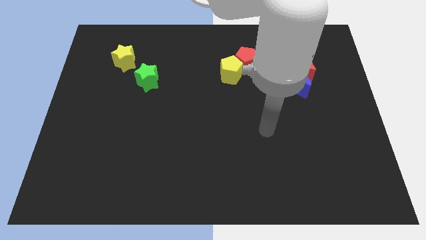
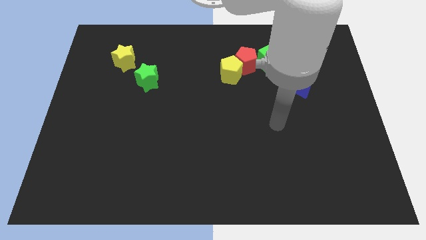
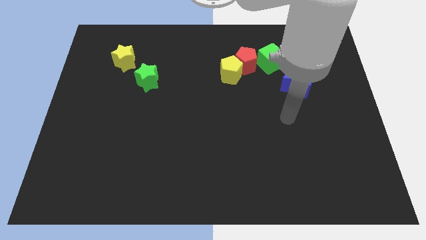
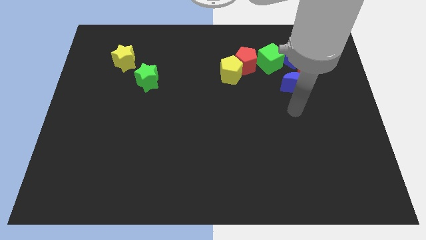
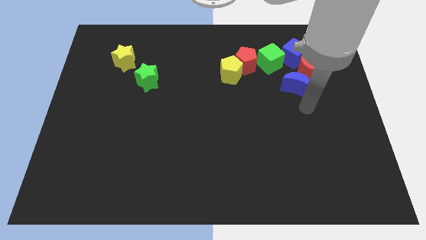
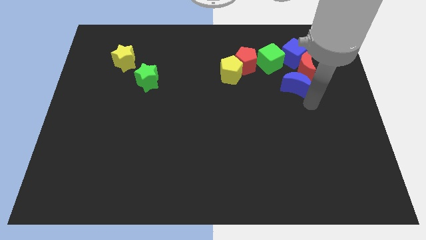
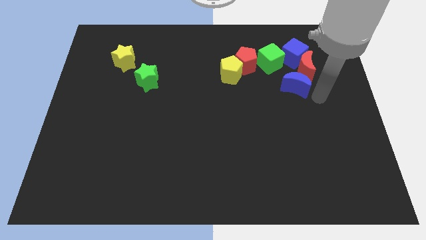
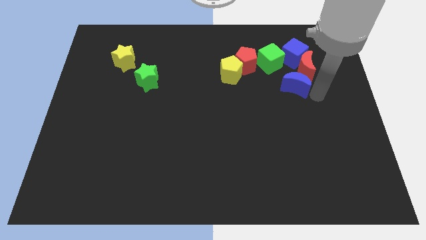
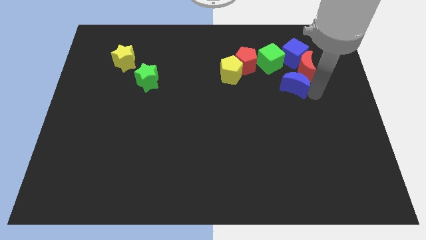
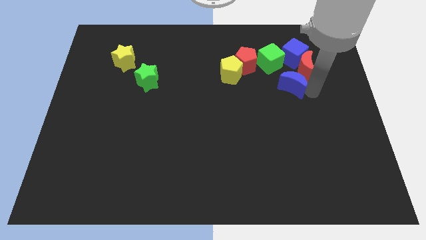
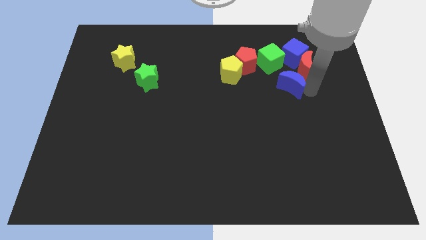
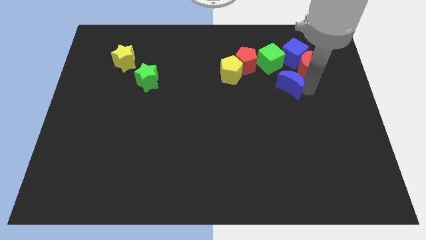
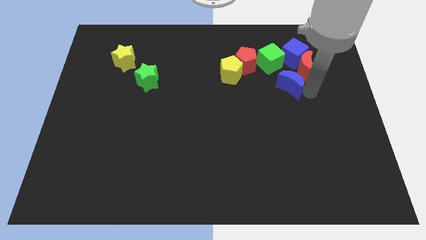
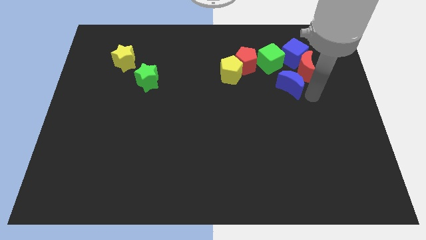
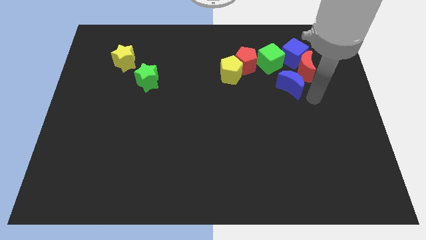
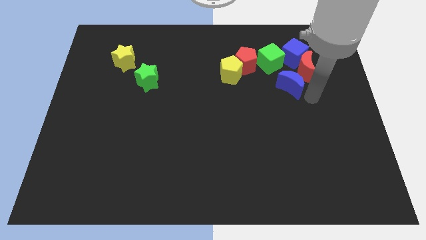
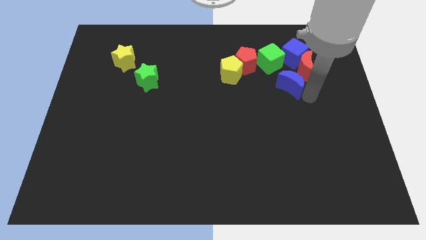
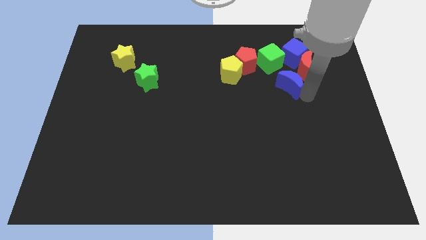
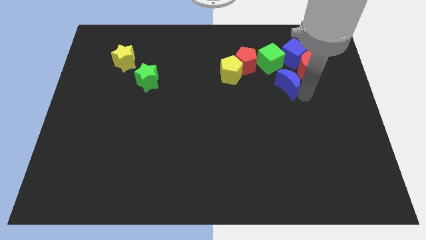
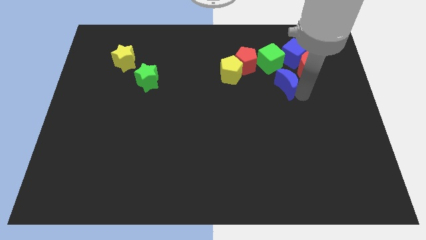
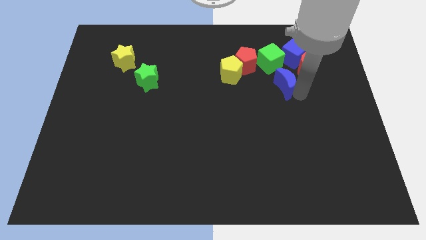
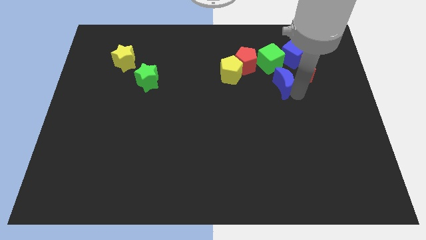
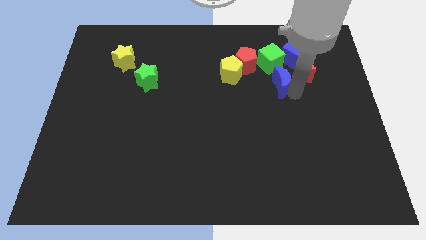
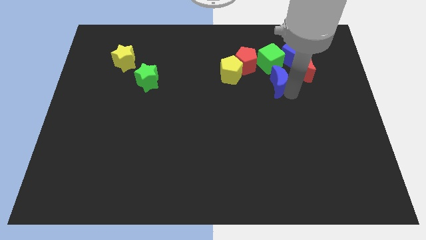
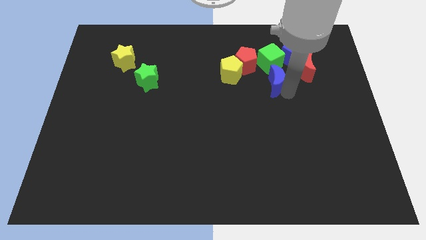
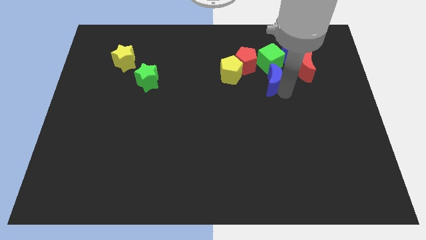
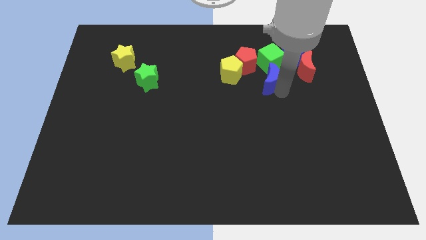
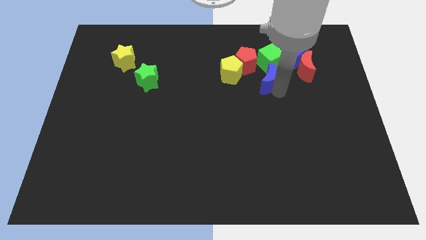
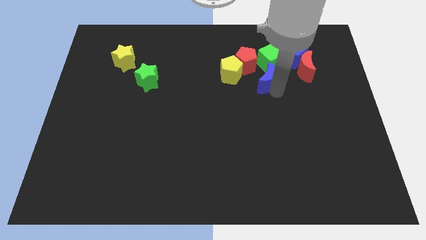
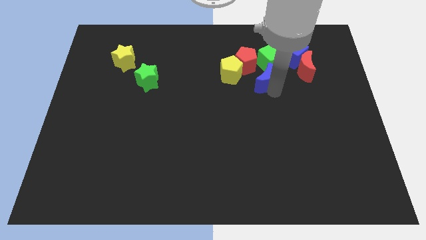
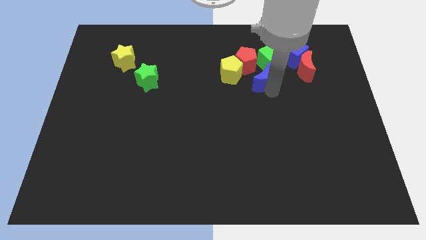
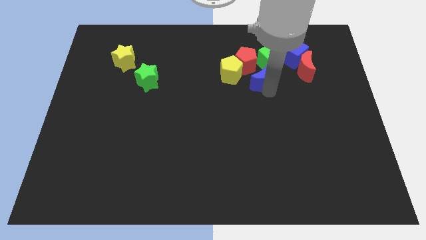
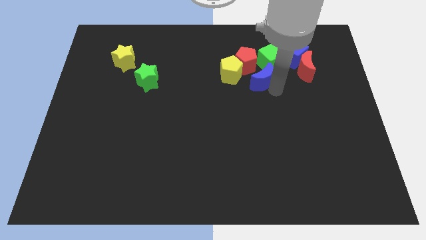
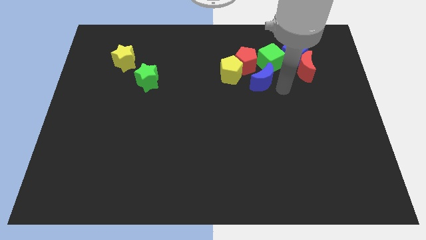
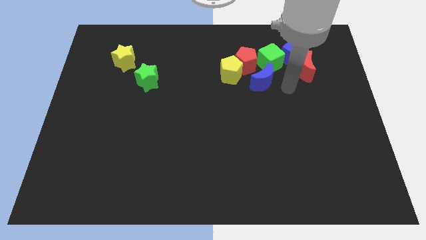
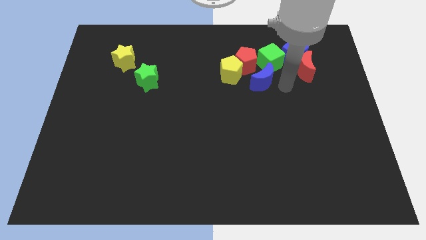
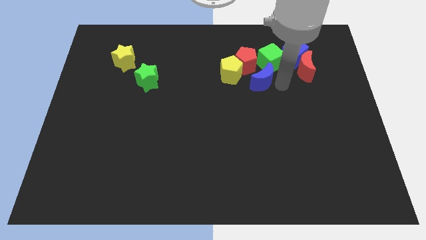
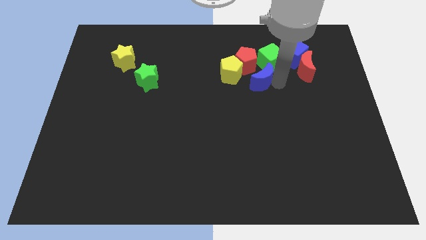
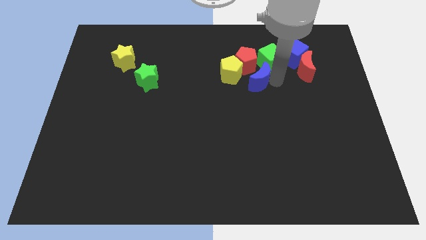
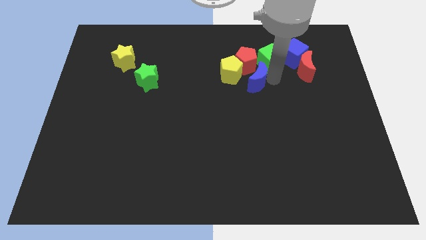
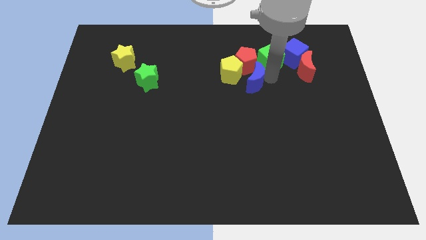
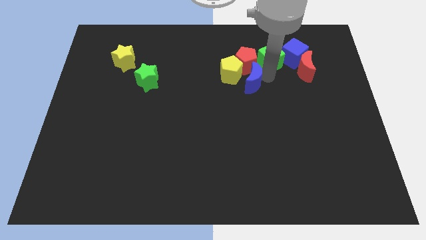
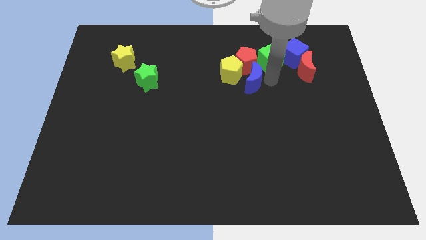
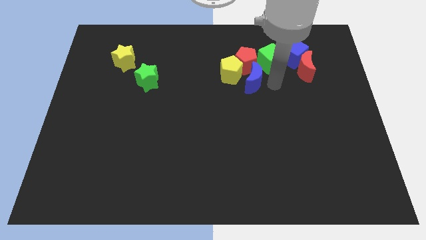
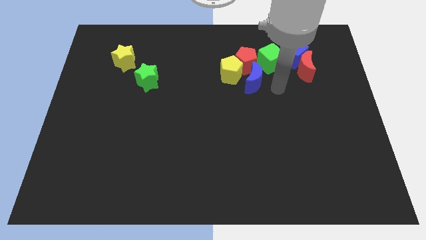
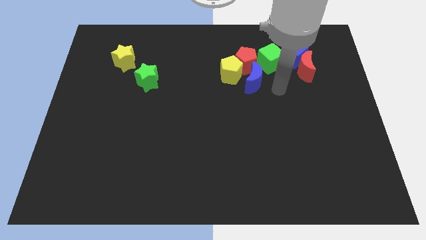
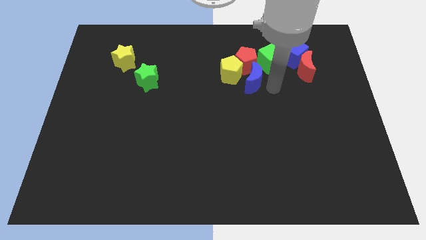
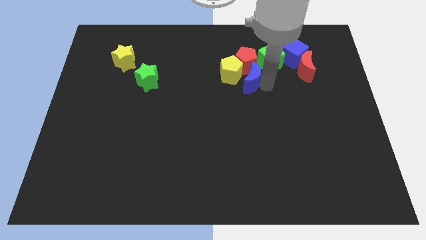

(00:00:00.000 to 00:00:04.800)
move the blue moon towards the yellow pentagon

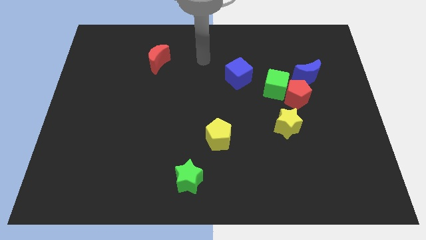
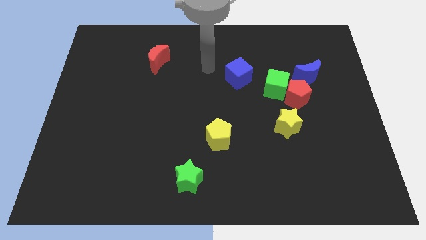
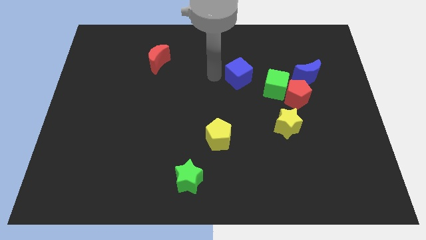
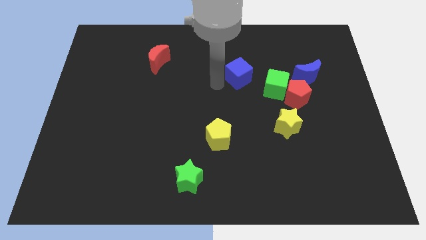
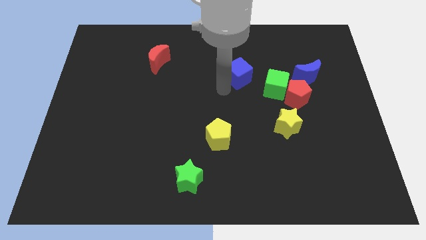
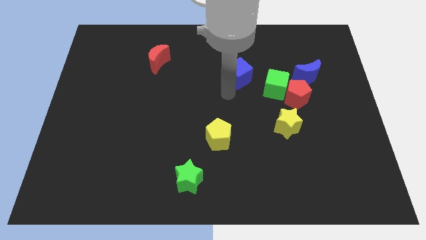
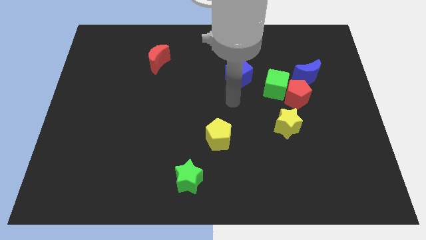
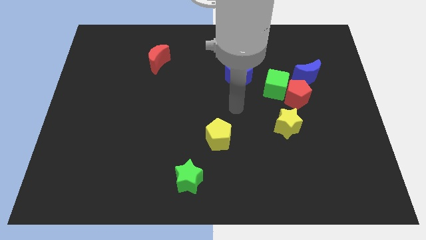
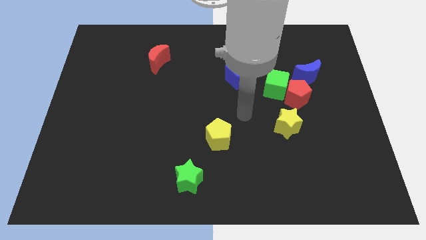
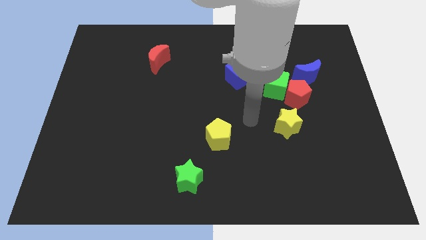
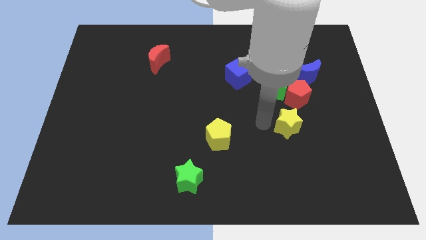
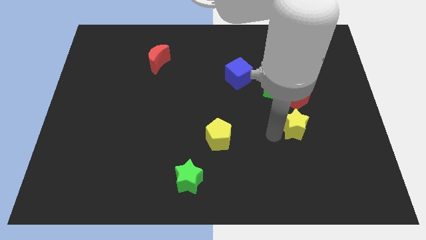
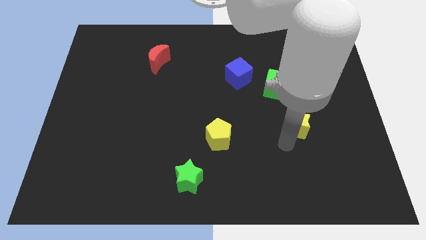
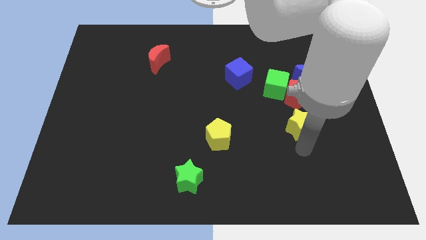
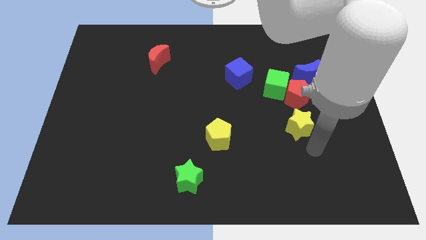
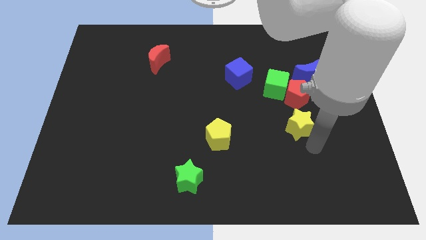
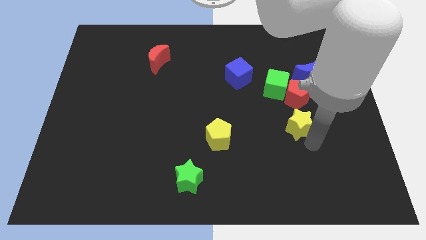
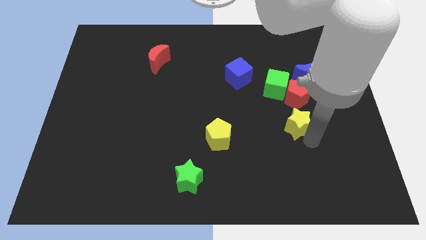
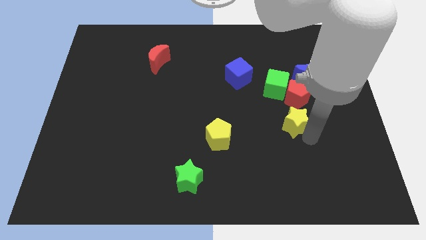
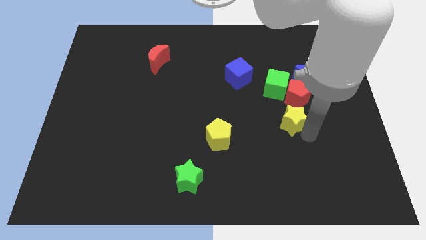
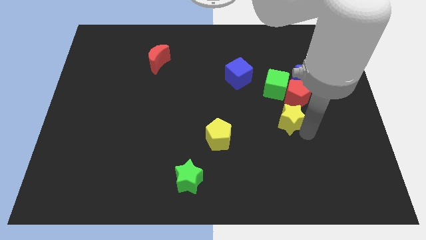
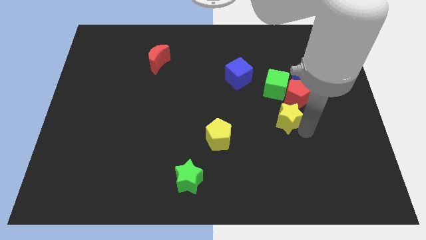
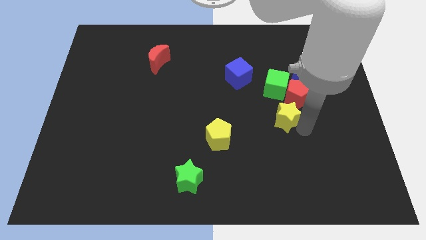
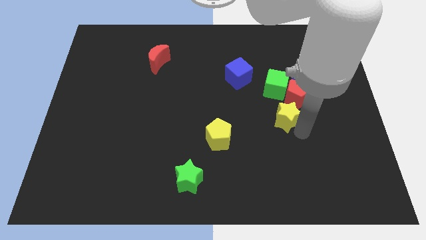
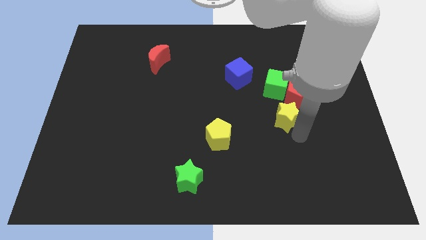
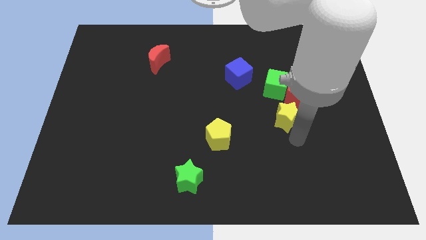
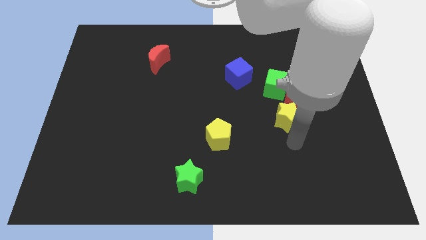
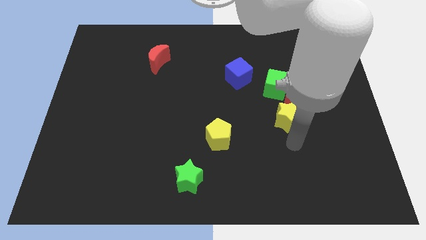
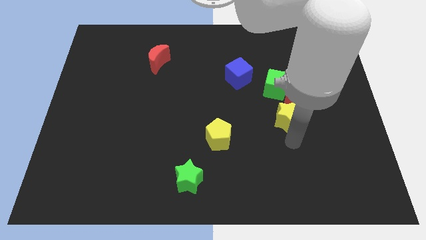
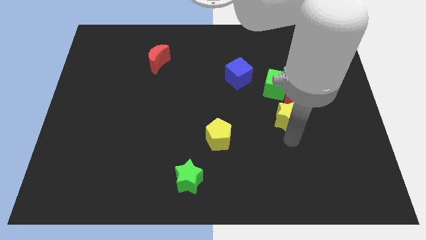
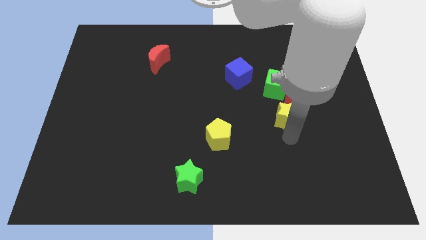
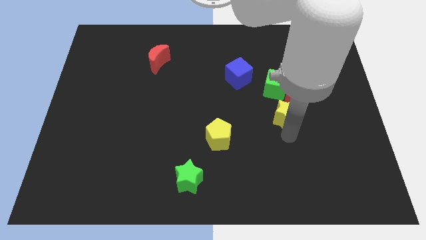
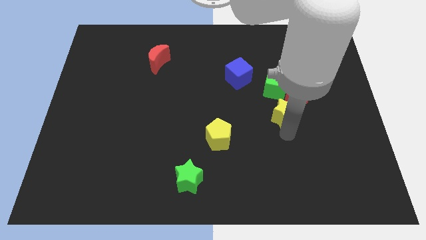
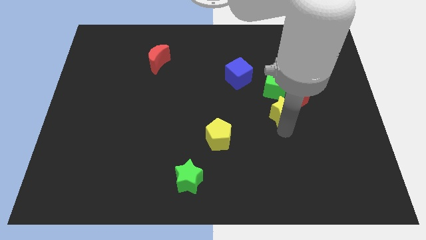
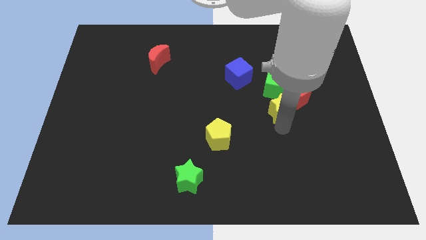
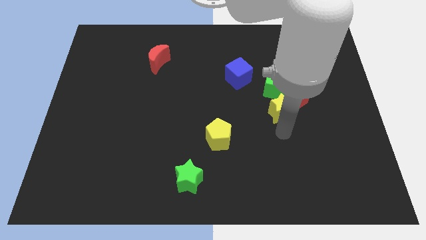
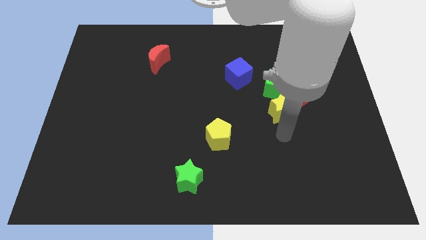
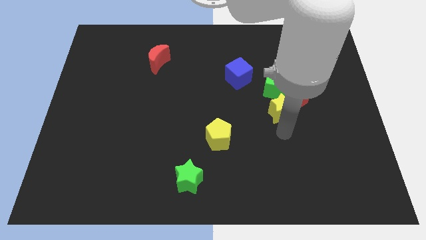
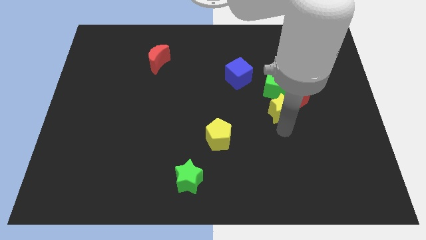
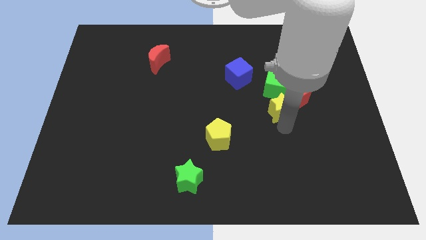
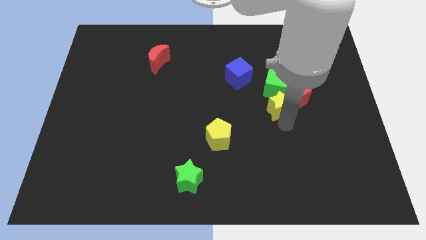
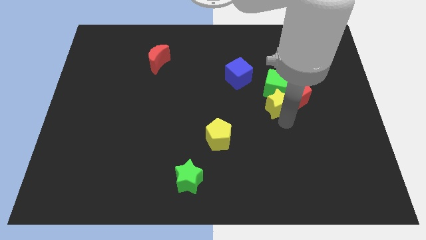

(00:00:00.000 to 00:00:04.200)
move the yellow star to the green cube
